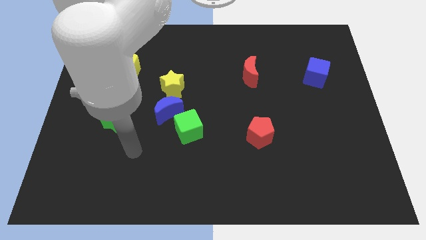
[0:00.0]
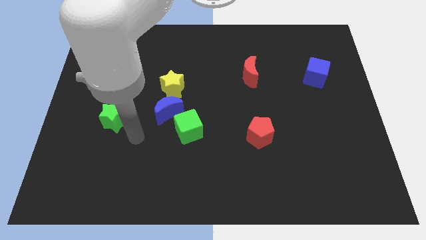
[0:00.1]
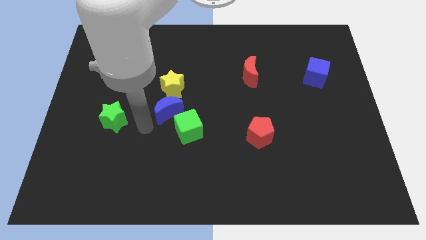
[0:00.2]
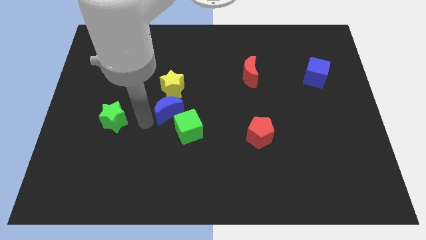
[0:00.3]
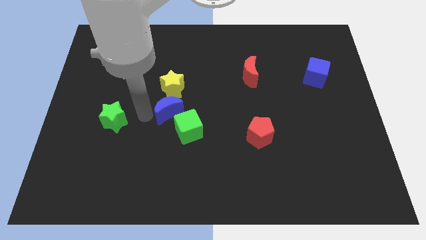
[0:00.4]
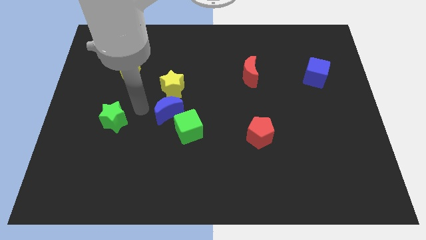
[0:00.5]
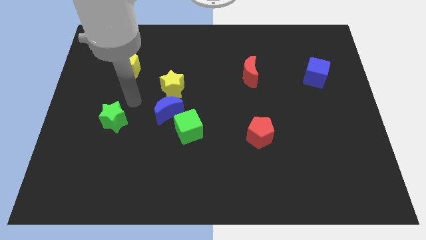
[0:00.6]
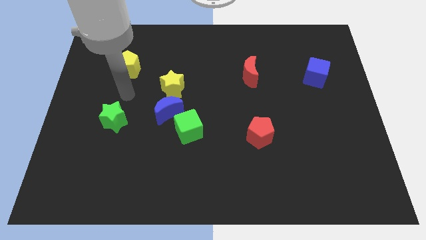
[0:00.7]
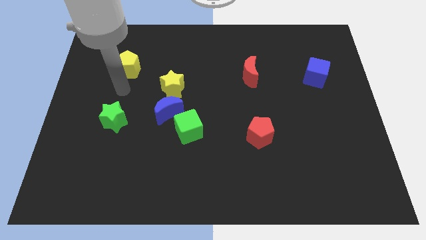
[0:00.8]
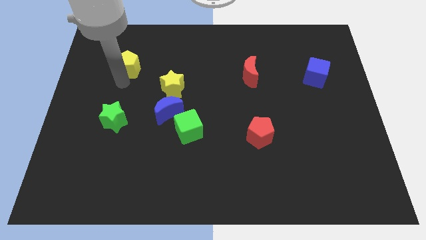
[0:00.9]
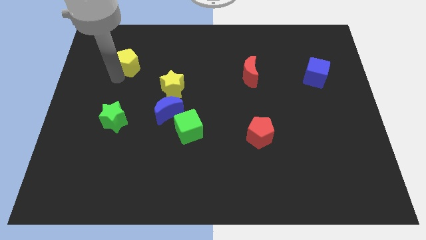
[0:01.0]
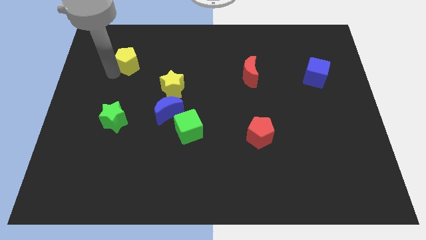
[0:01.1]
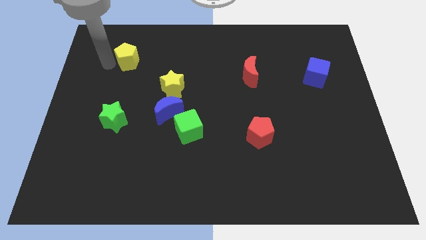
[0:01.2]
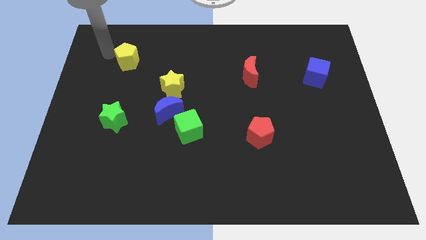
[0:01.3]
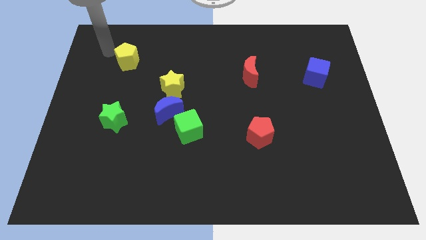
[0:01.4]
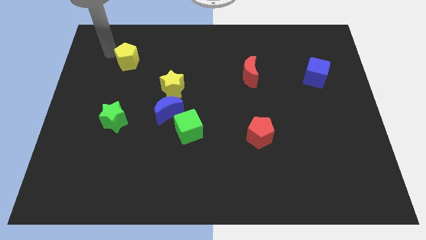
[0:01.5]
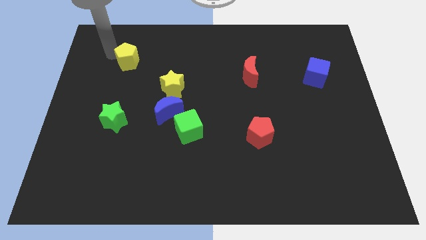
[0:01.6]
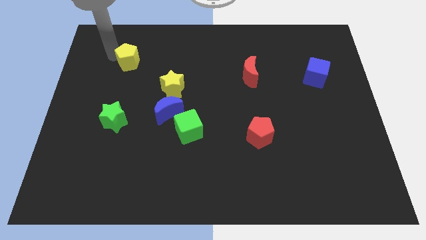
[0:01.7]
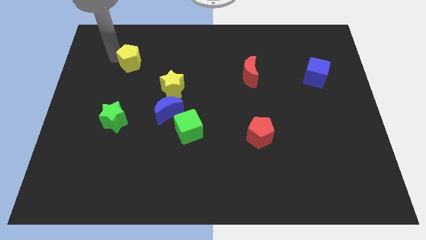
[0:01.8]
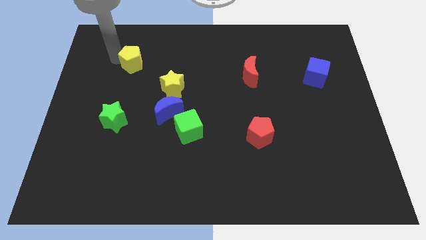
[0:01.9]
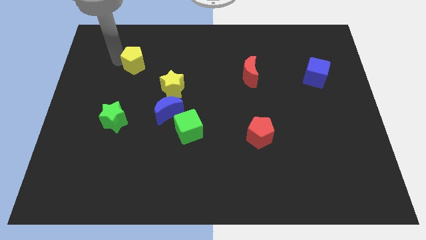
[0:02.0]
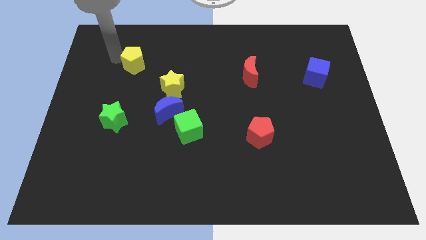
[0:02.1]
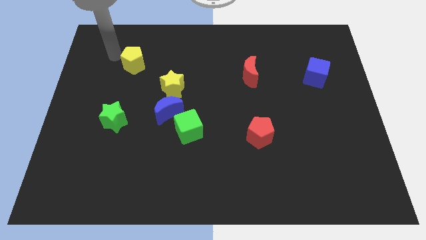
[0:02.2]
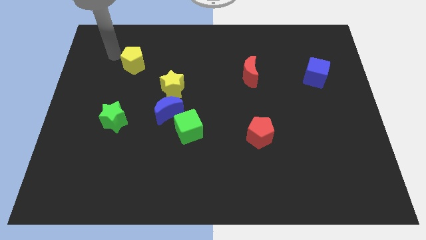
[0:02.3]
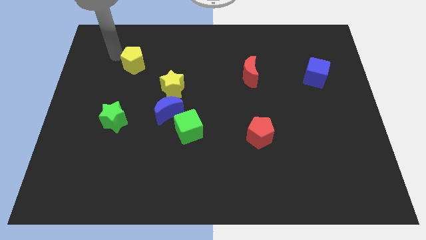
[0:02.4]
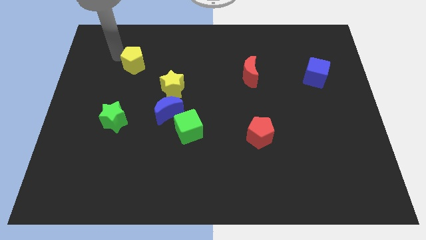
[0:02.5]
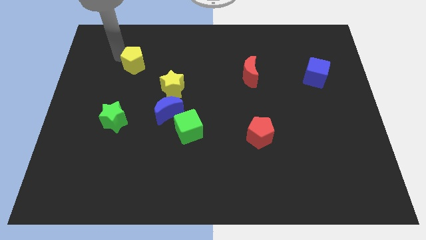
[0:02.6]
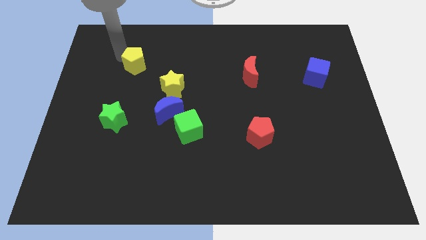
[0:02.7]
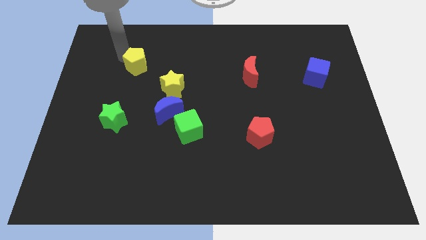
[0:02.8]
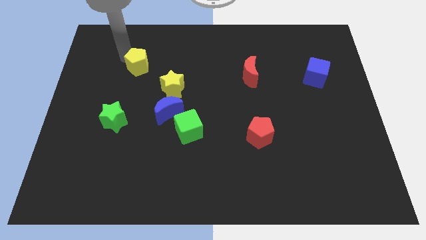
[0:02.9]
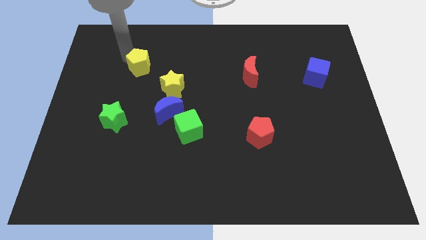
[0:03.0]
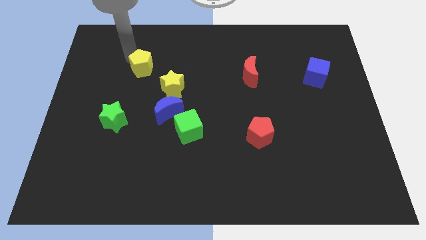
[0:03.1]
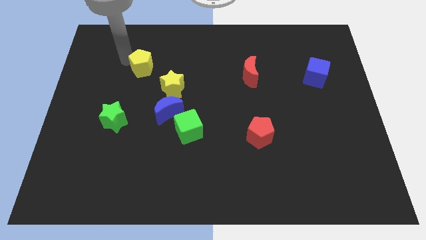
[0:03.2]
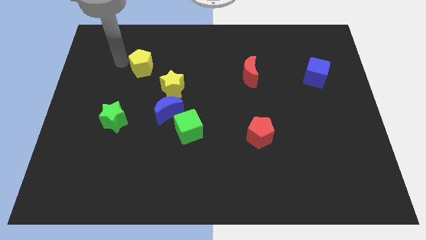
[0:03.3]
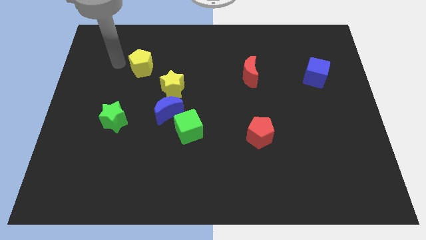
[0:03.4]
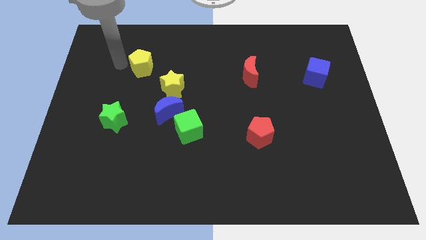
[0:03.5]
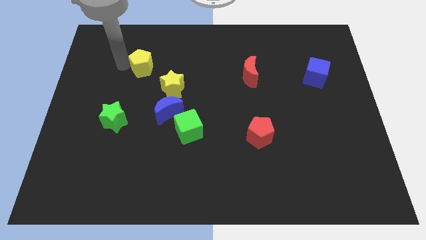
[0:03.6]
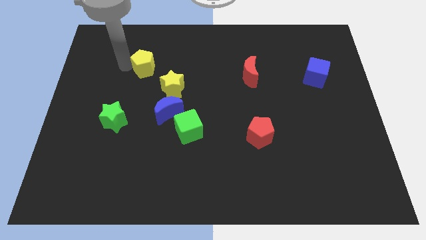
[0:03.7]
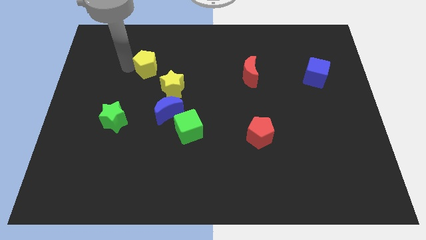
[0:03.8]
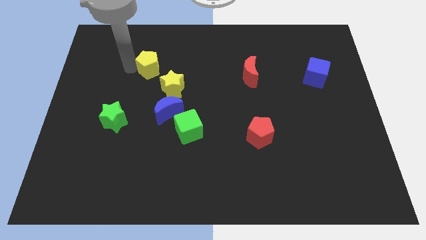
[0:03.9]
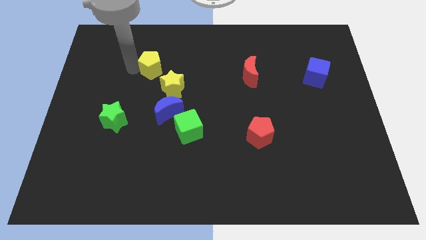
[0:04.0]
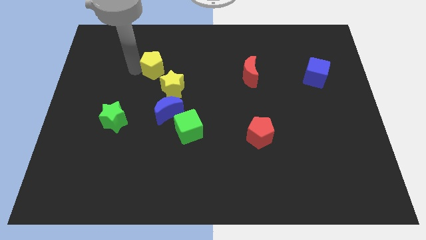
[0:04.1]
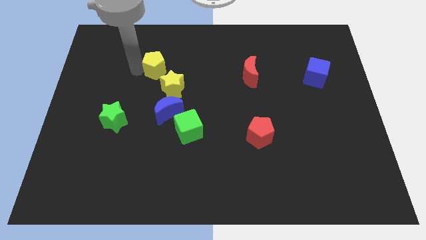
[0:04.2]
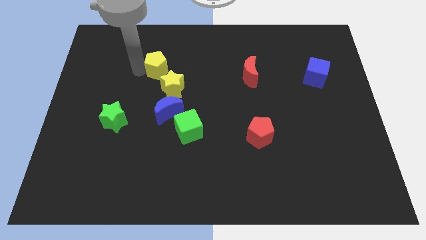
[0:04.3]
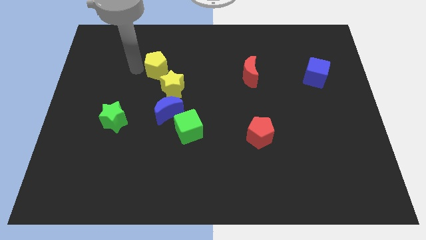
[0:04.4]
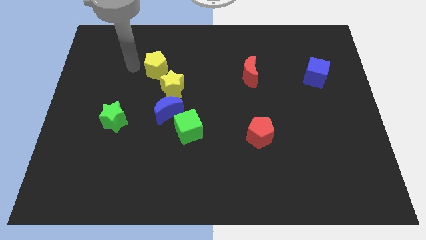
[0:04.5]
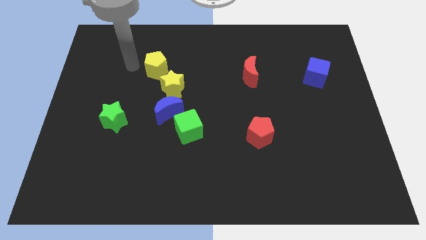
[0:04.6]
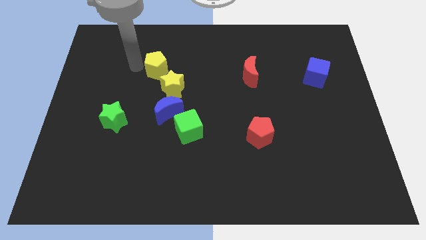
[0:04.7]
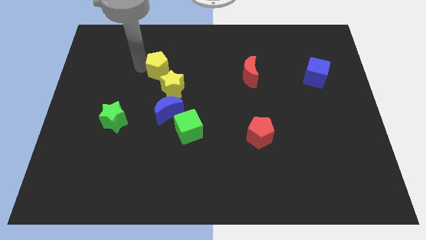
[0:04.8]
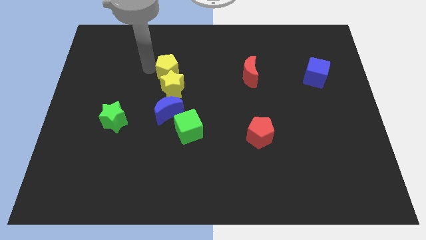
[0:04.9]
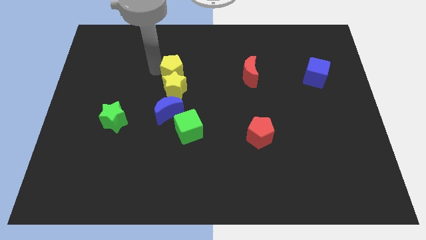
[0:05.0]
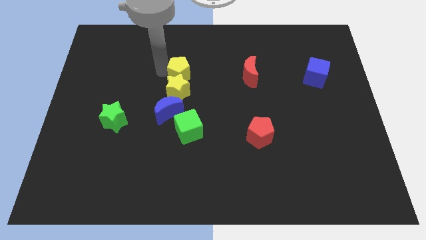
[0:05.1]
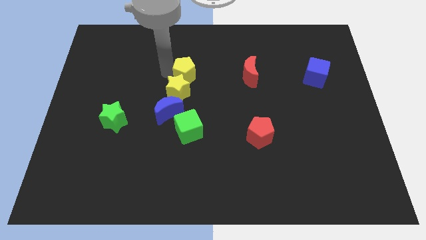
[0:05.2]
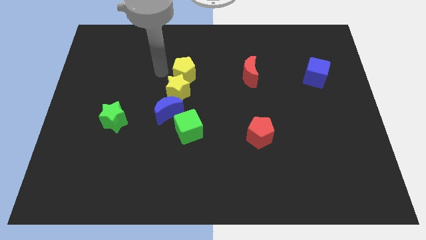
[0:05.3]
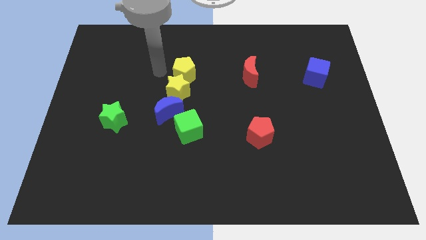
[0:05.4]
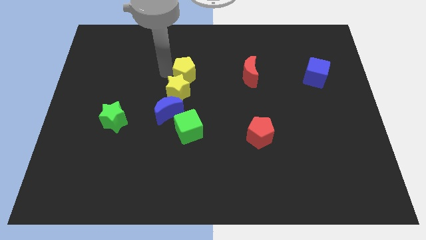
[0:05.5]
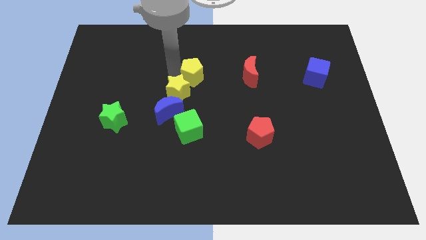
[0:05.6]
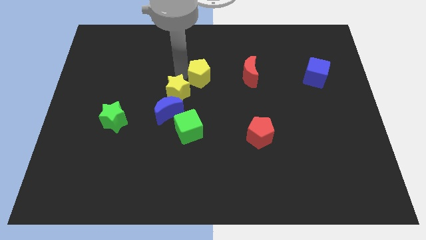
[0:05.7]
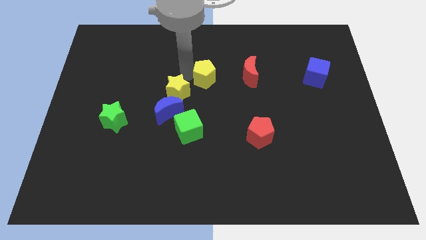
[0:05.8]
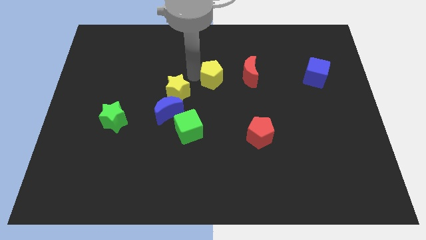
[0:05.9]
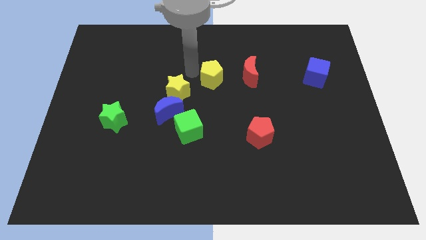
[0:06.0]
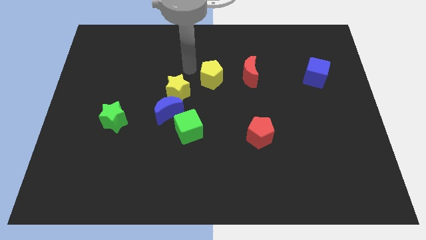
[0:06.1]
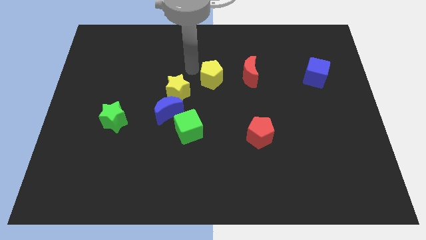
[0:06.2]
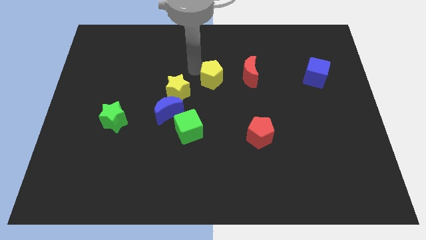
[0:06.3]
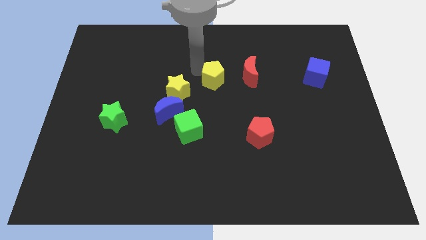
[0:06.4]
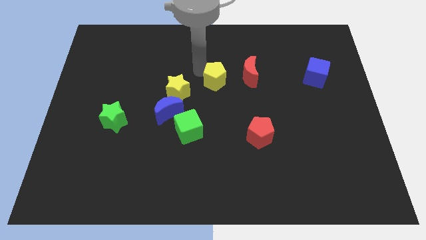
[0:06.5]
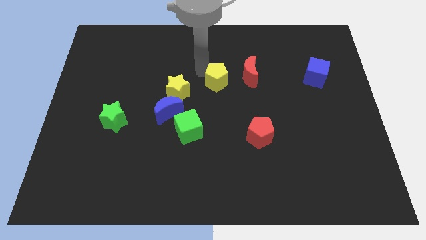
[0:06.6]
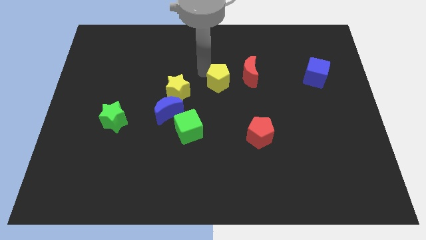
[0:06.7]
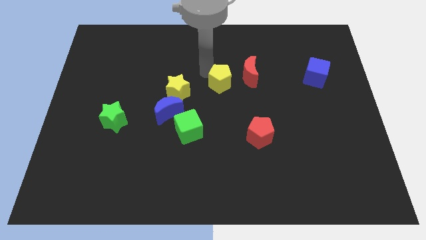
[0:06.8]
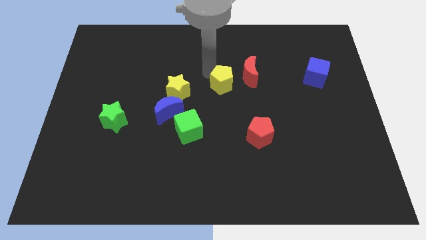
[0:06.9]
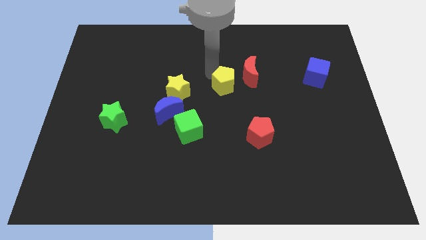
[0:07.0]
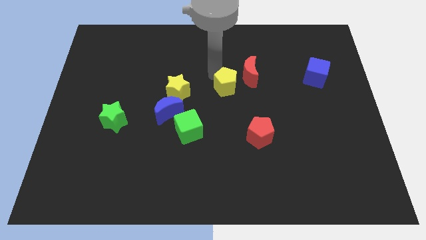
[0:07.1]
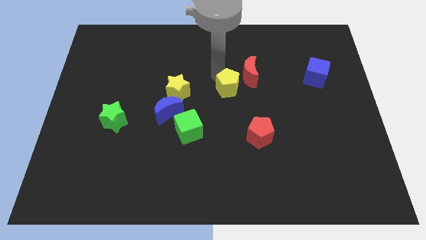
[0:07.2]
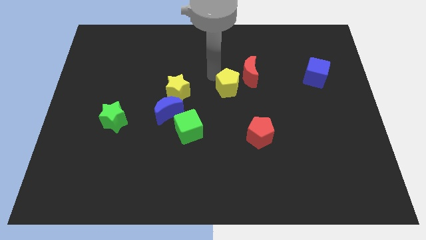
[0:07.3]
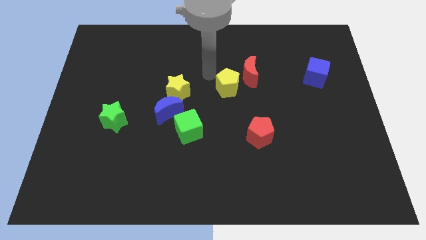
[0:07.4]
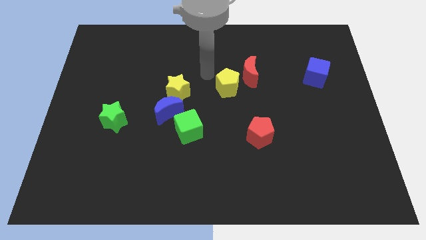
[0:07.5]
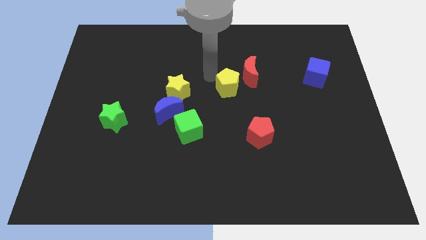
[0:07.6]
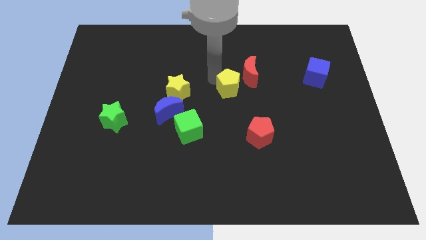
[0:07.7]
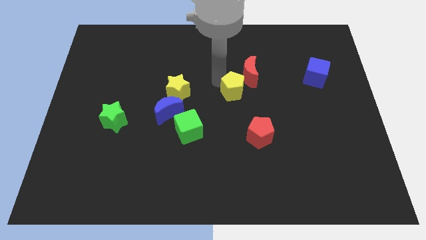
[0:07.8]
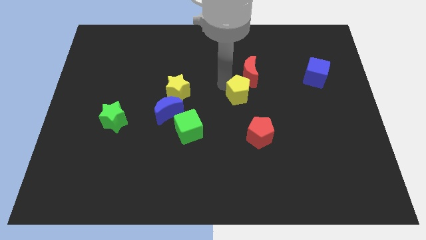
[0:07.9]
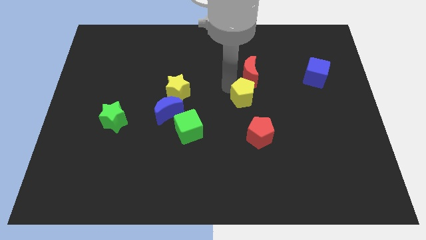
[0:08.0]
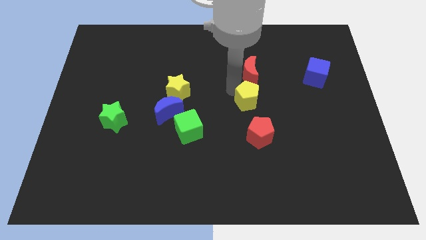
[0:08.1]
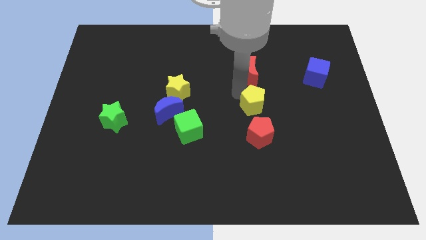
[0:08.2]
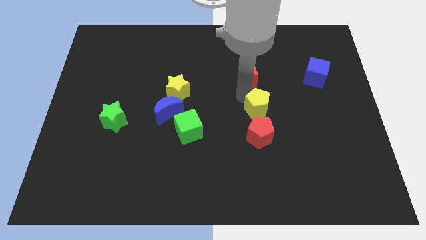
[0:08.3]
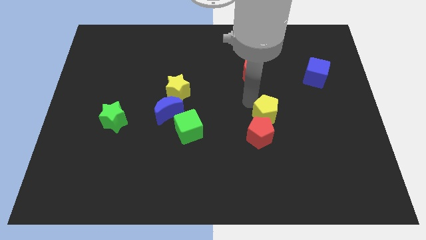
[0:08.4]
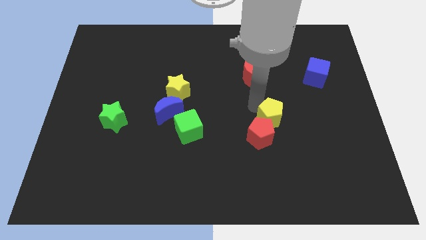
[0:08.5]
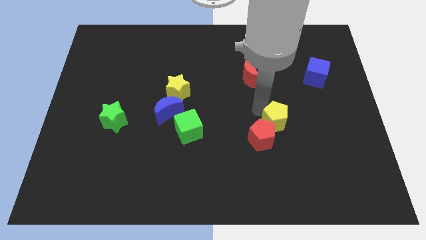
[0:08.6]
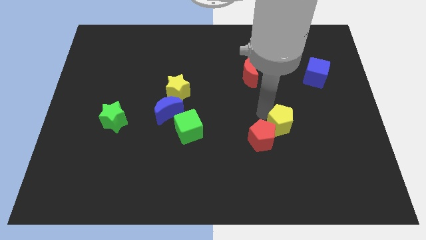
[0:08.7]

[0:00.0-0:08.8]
move the yellow pentagon just right of the red pentagon
